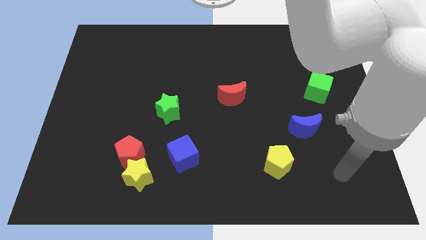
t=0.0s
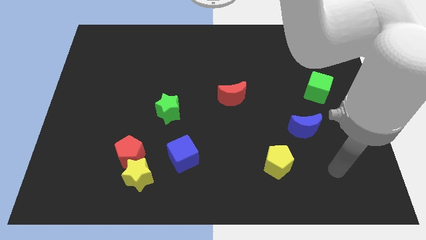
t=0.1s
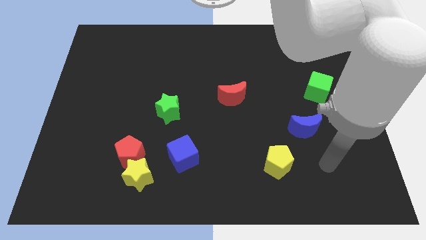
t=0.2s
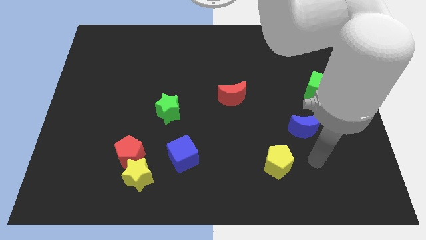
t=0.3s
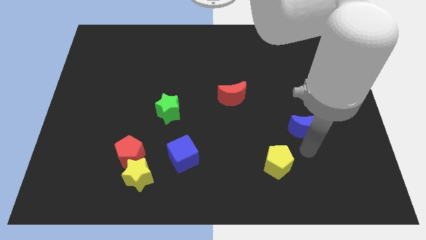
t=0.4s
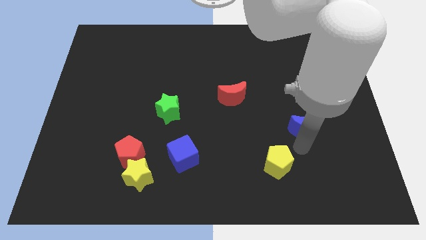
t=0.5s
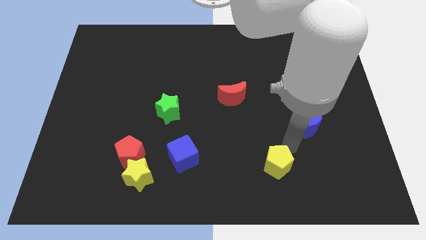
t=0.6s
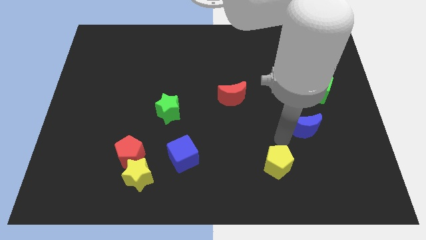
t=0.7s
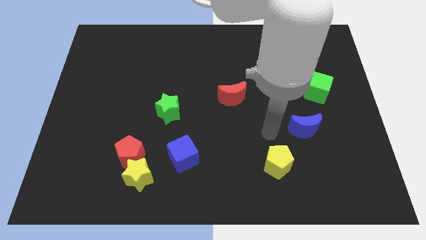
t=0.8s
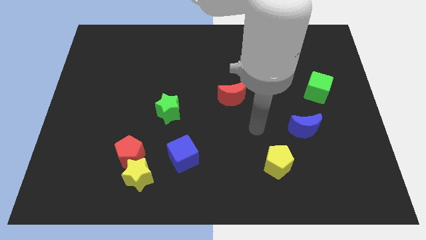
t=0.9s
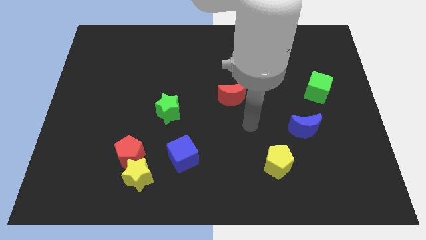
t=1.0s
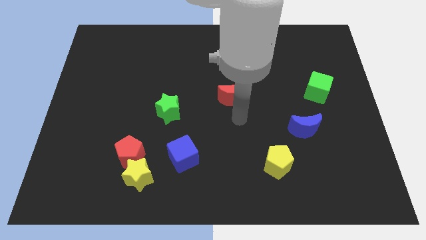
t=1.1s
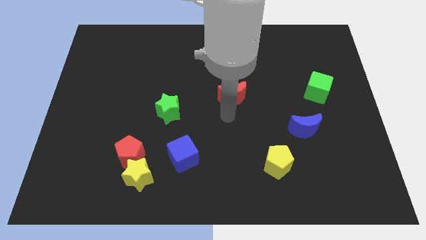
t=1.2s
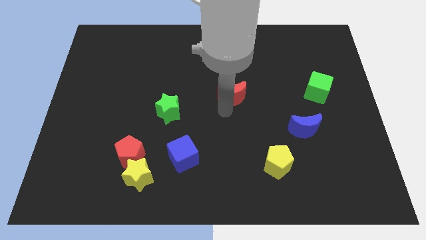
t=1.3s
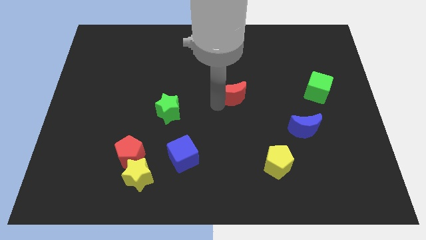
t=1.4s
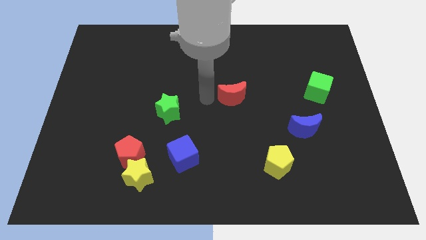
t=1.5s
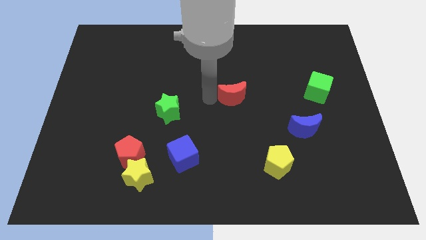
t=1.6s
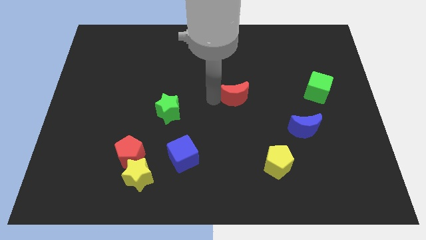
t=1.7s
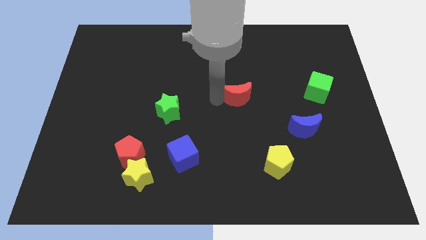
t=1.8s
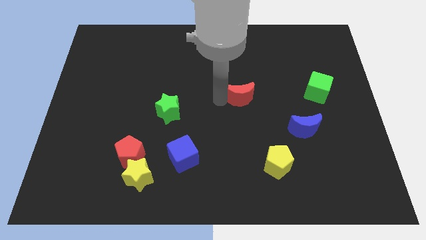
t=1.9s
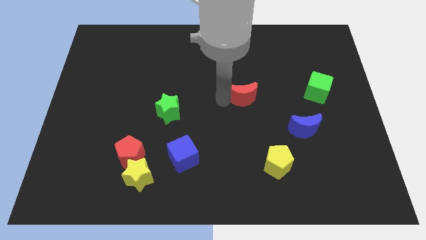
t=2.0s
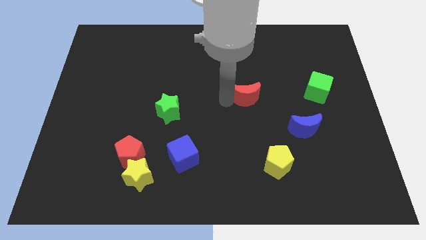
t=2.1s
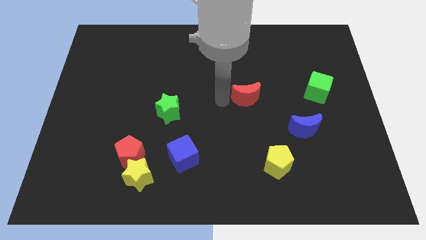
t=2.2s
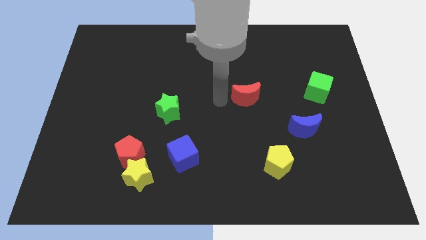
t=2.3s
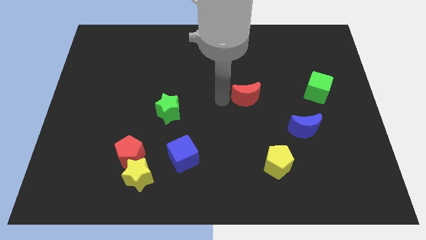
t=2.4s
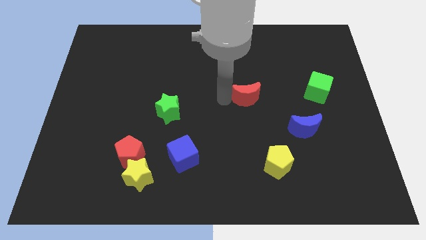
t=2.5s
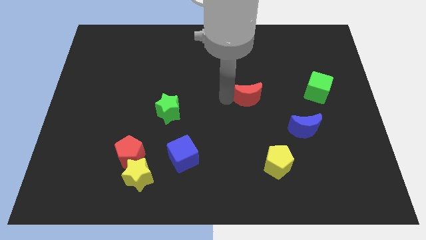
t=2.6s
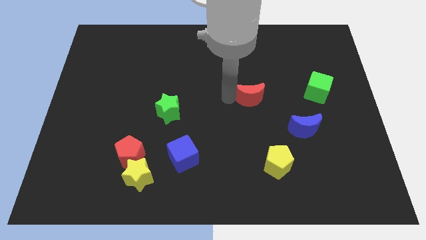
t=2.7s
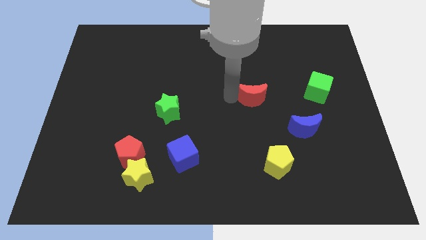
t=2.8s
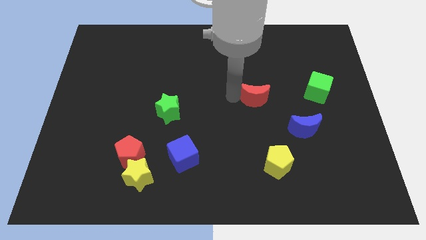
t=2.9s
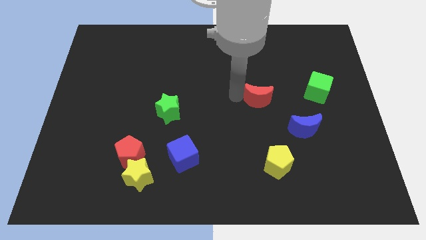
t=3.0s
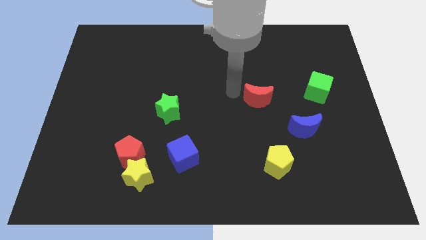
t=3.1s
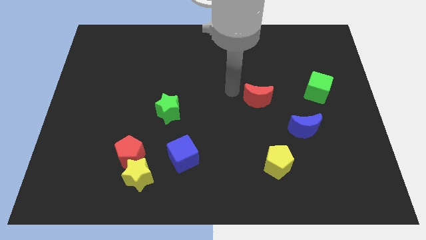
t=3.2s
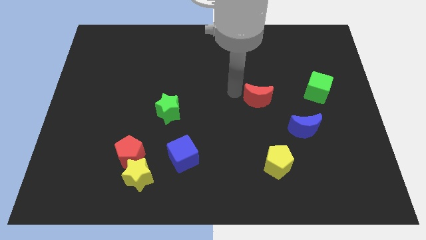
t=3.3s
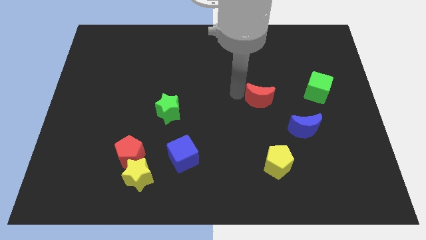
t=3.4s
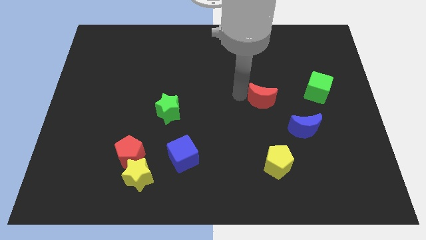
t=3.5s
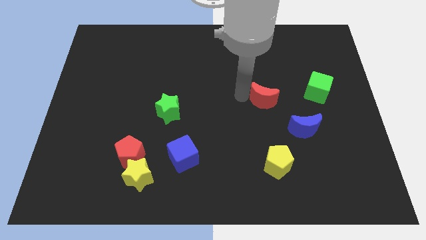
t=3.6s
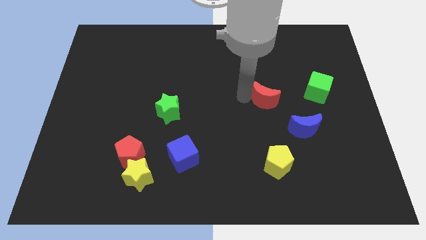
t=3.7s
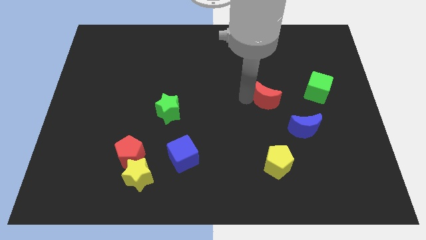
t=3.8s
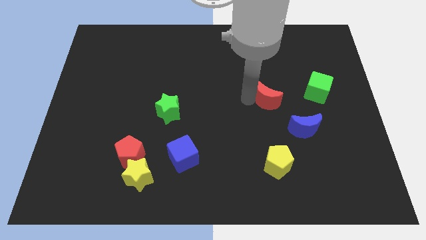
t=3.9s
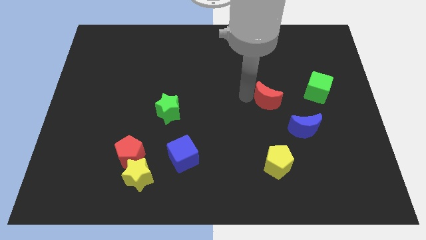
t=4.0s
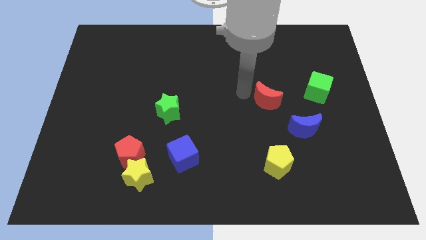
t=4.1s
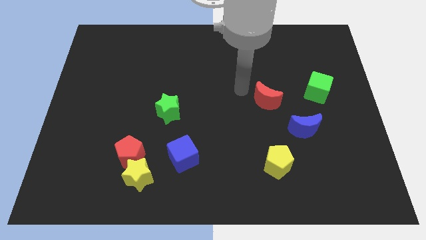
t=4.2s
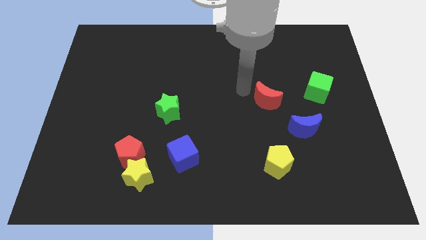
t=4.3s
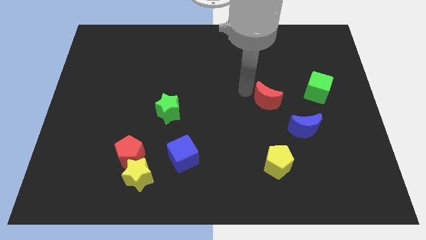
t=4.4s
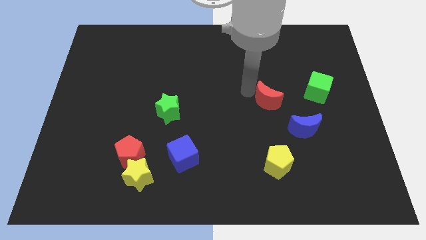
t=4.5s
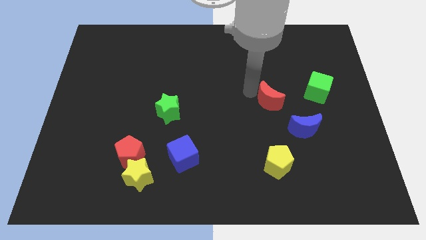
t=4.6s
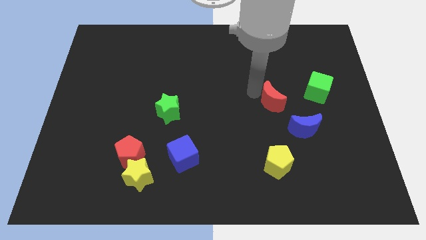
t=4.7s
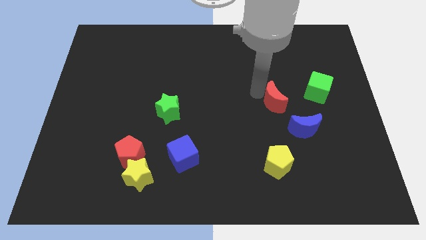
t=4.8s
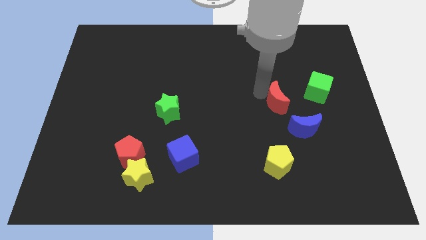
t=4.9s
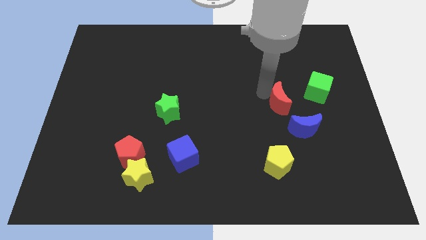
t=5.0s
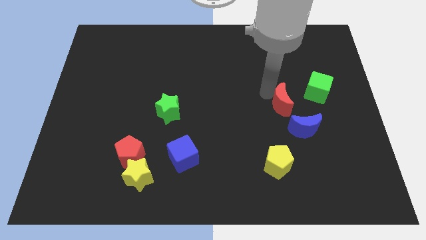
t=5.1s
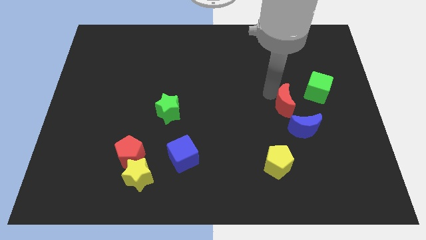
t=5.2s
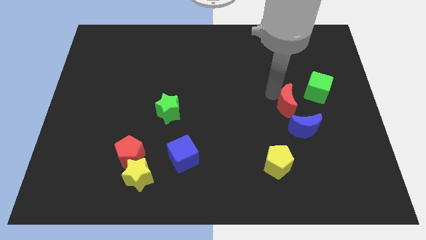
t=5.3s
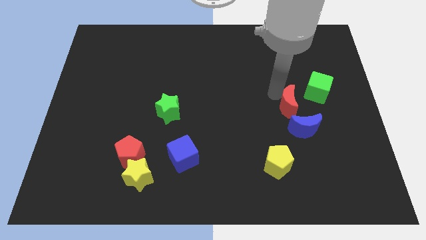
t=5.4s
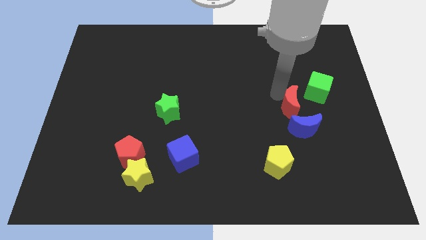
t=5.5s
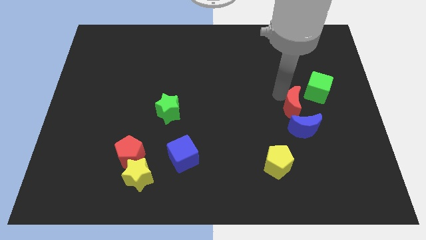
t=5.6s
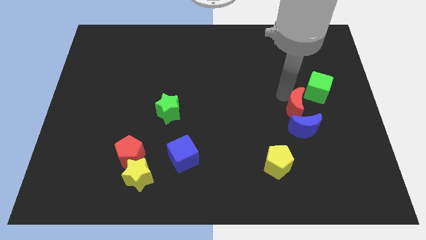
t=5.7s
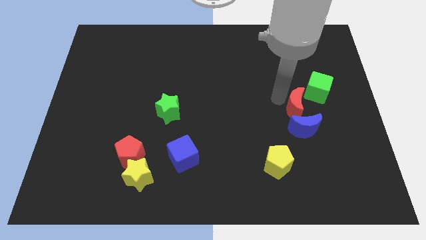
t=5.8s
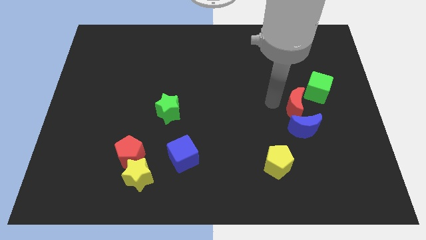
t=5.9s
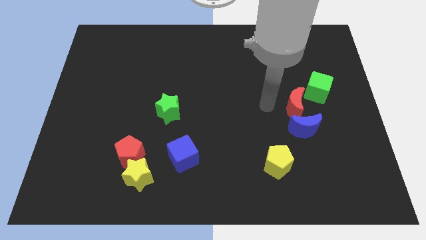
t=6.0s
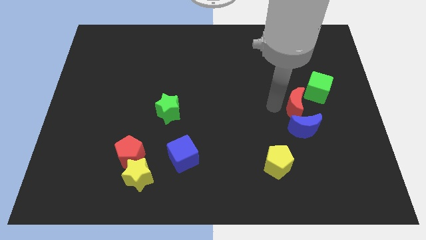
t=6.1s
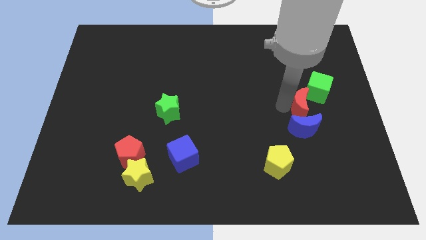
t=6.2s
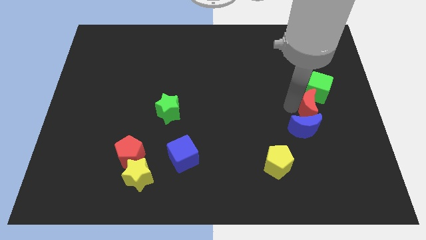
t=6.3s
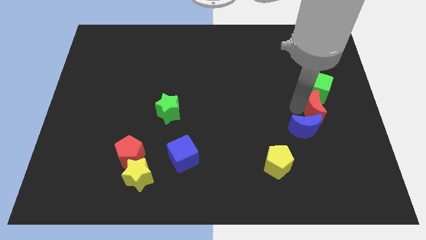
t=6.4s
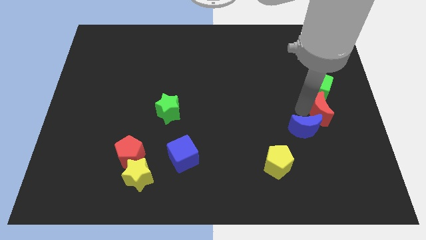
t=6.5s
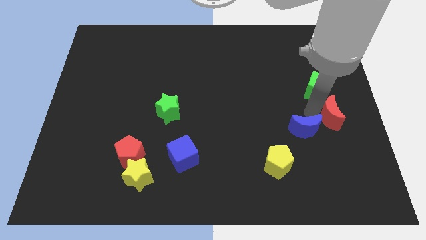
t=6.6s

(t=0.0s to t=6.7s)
slide the red moon to the center right

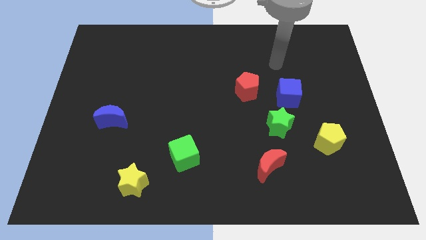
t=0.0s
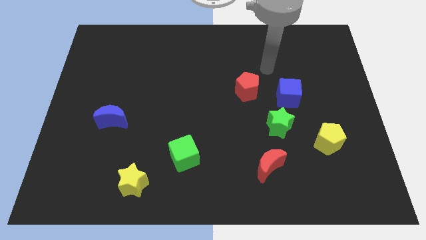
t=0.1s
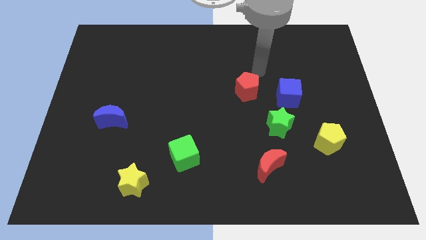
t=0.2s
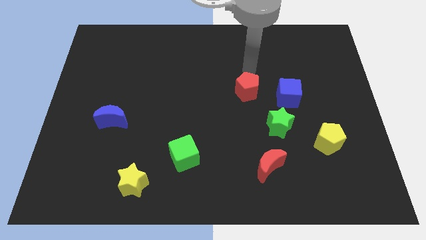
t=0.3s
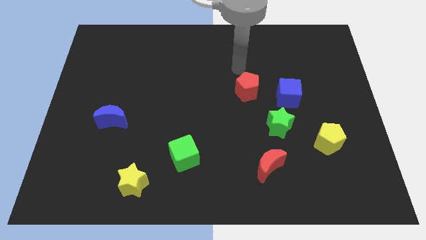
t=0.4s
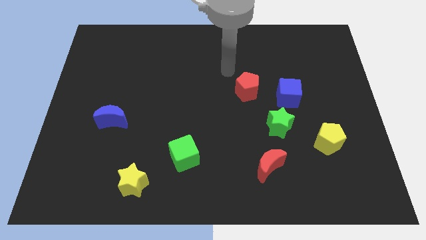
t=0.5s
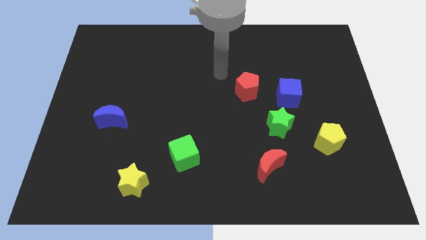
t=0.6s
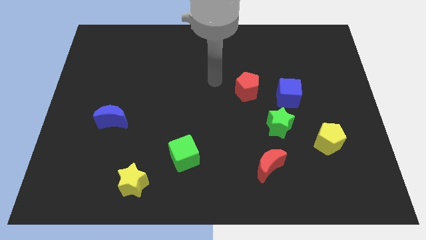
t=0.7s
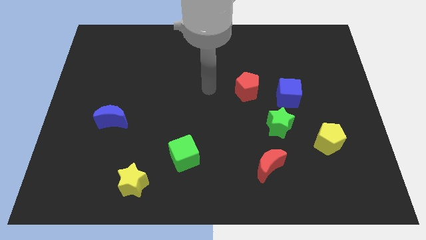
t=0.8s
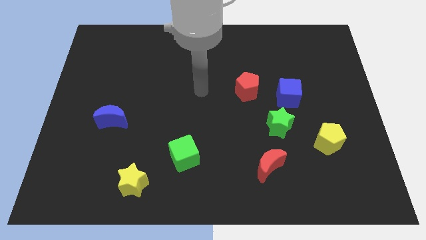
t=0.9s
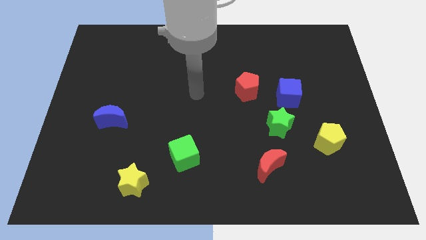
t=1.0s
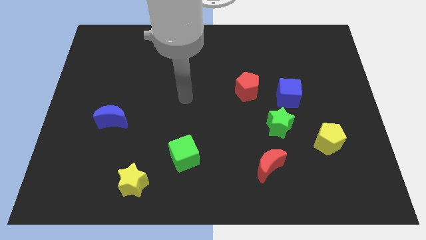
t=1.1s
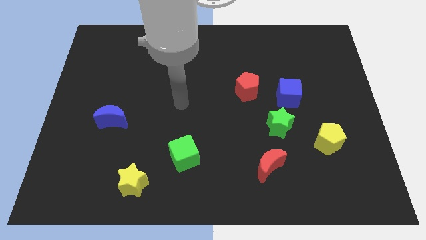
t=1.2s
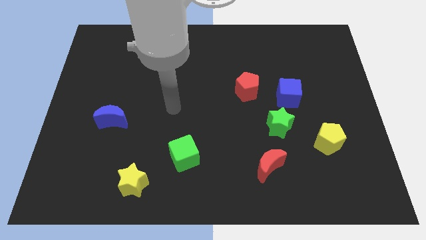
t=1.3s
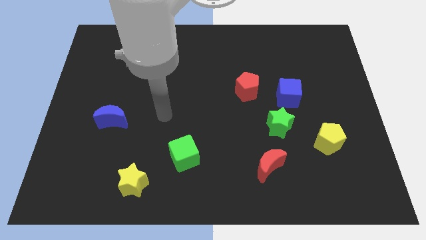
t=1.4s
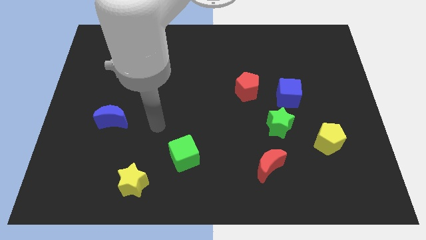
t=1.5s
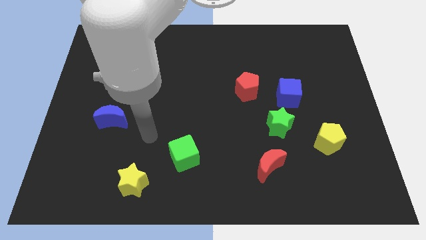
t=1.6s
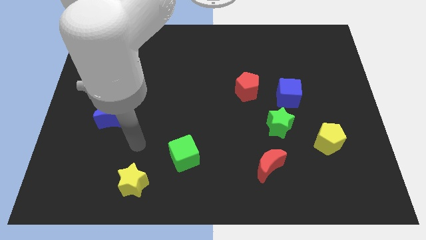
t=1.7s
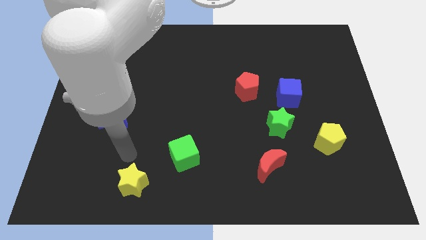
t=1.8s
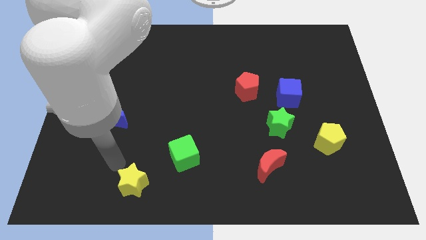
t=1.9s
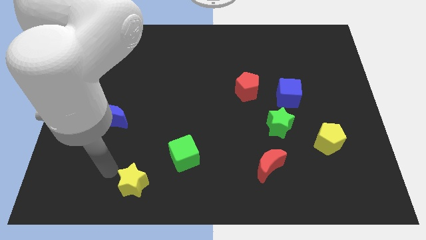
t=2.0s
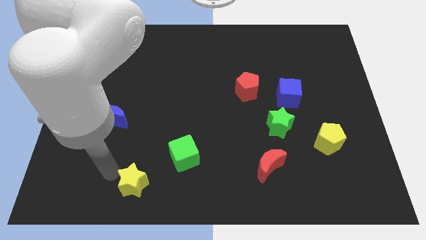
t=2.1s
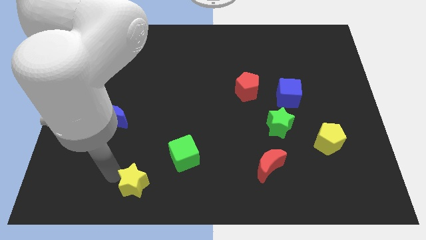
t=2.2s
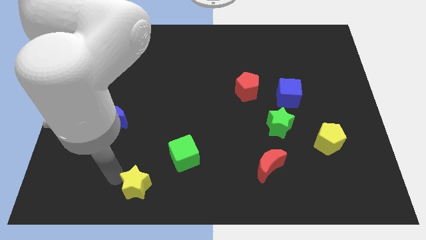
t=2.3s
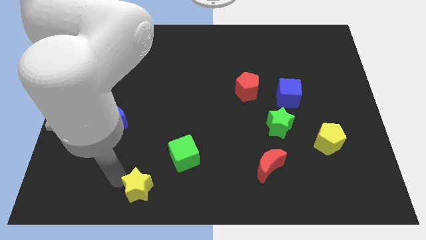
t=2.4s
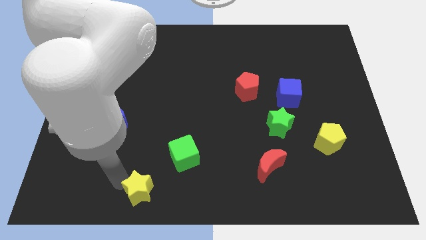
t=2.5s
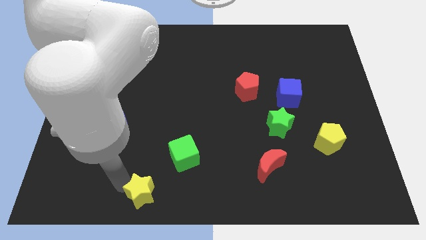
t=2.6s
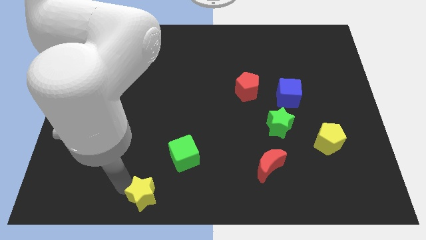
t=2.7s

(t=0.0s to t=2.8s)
move the yellow star to the bottom
